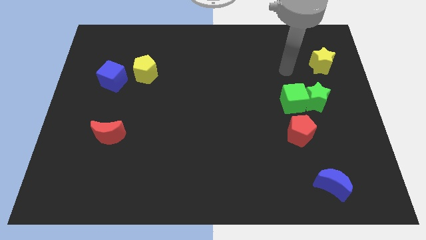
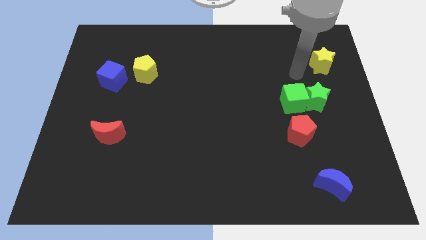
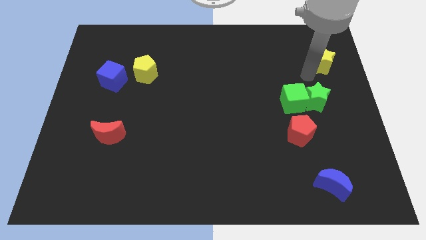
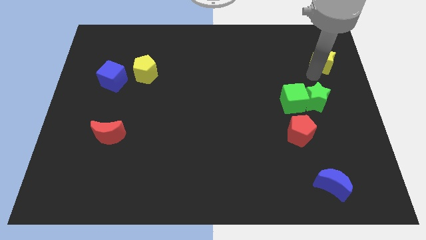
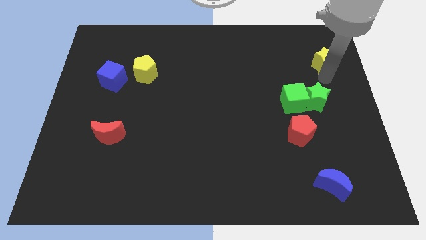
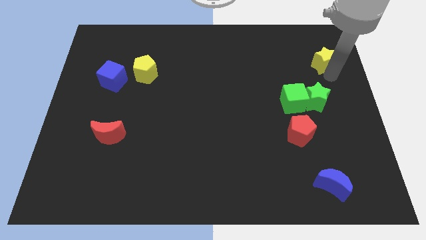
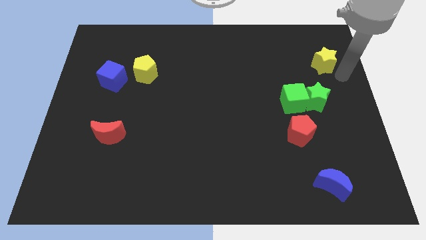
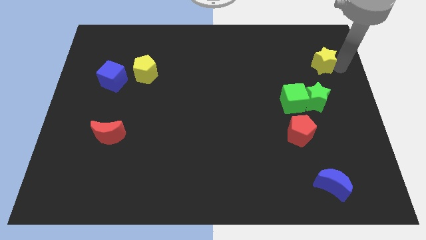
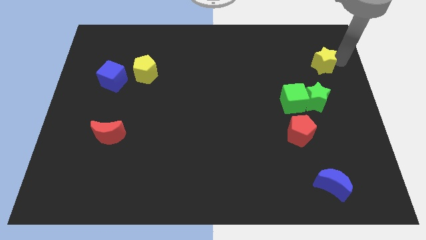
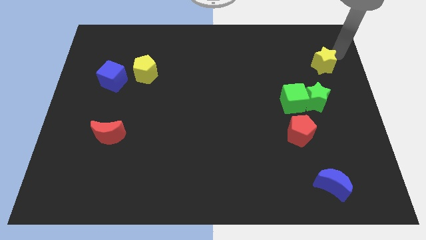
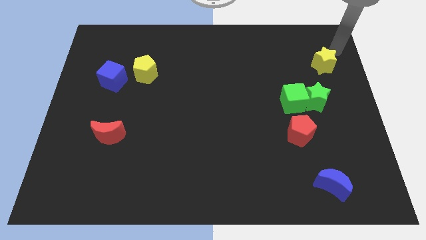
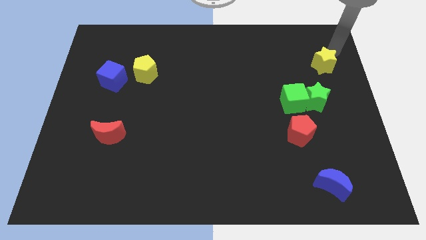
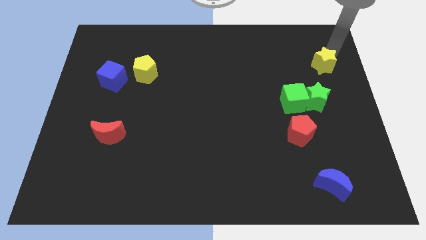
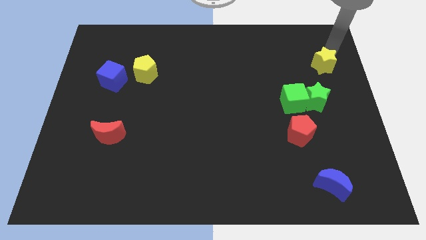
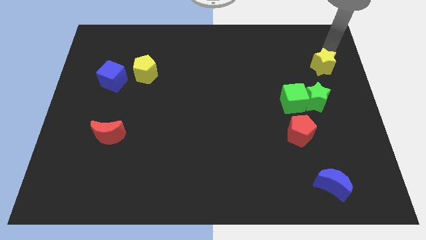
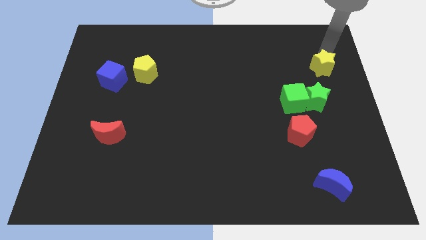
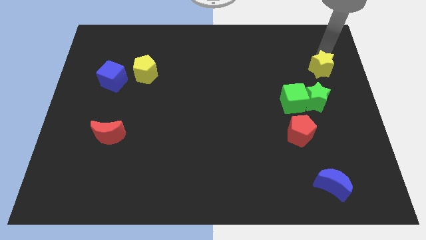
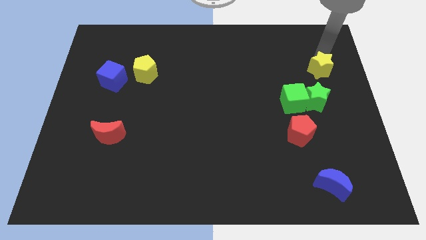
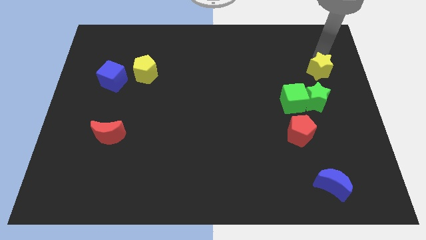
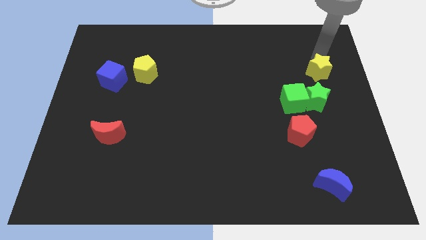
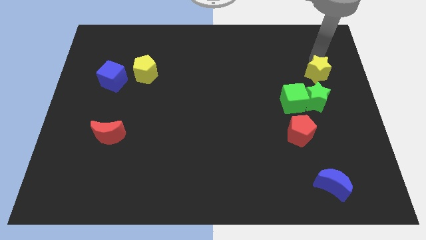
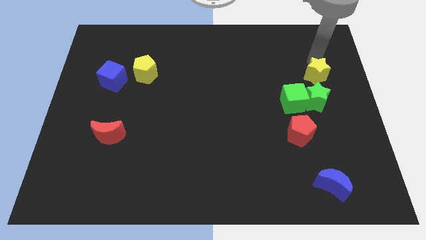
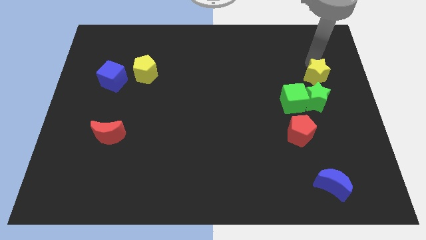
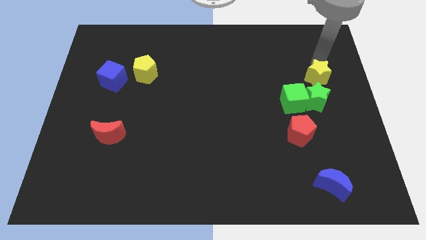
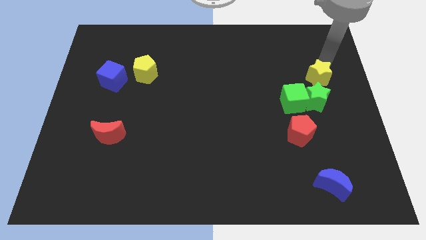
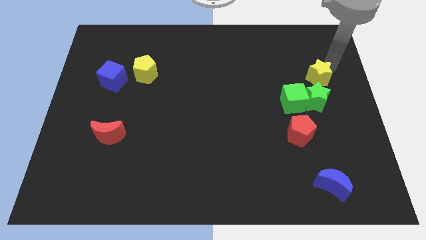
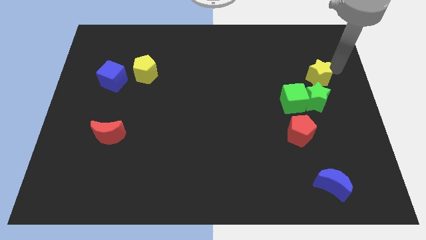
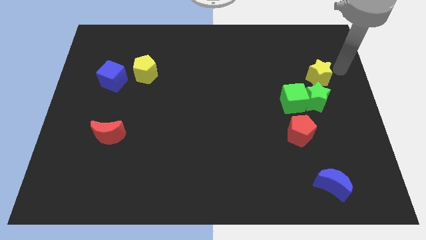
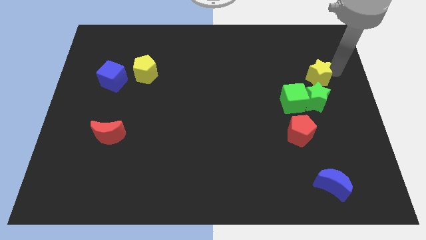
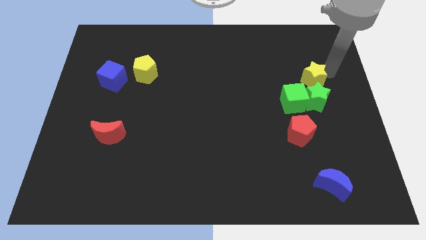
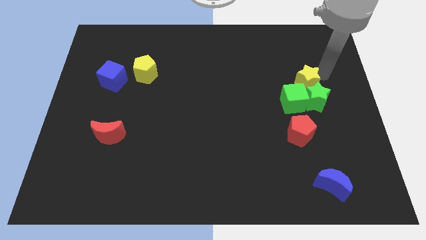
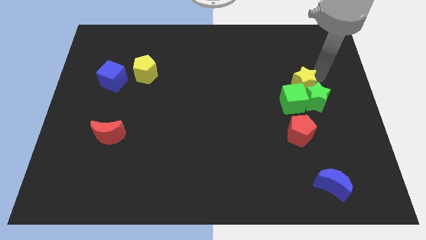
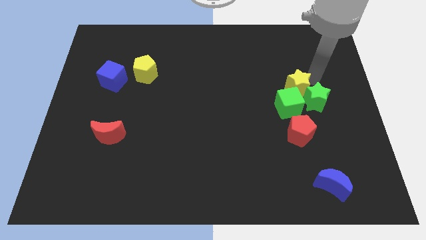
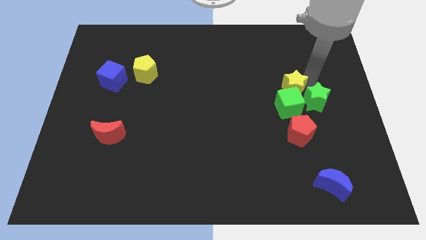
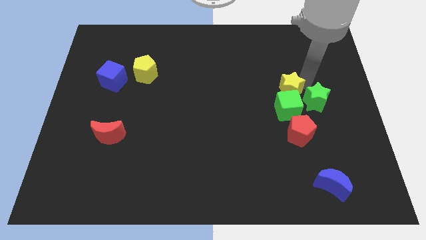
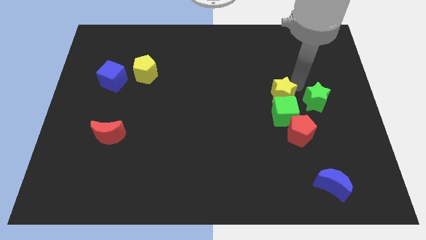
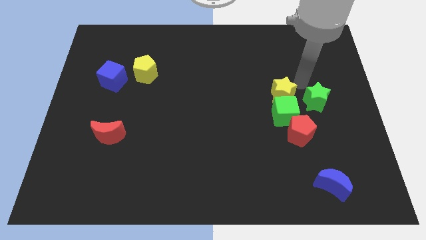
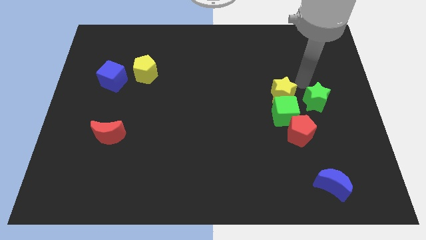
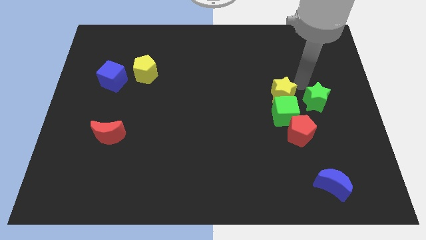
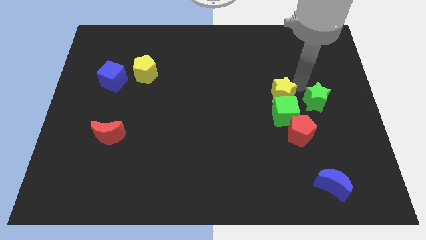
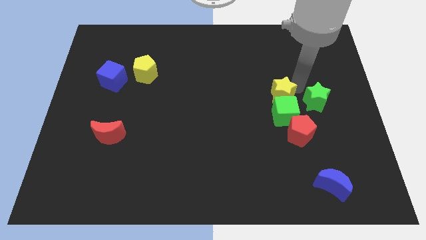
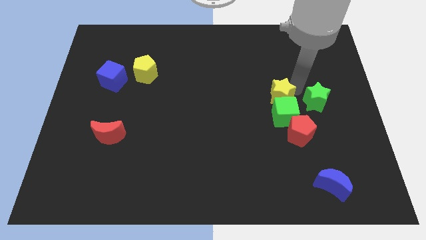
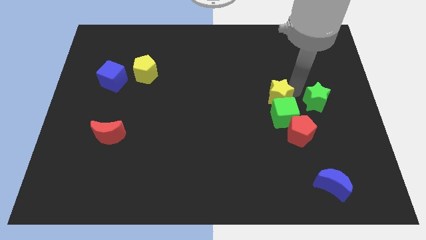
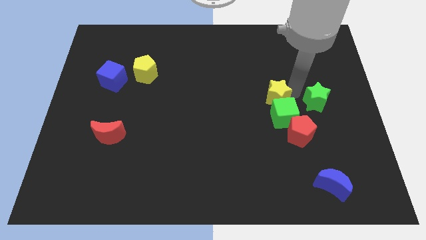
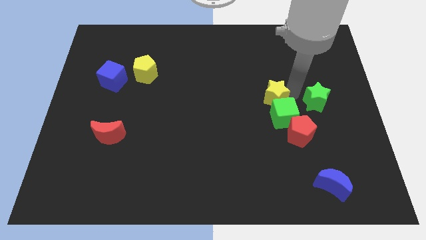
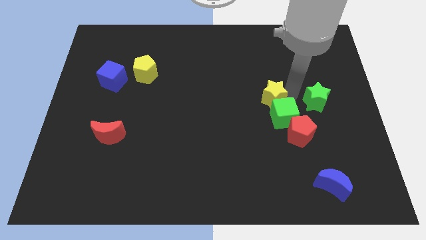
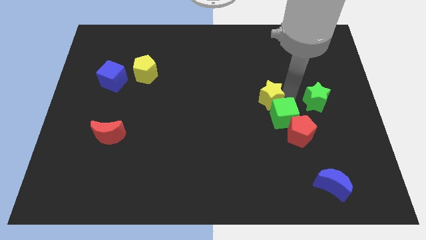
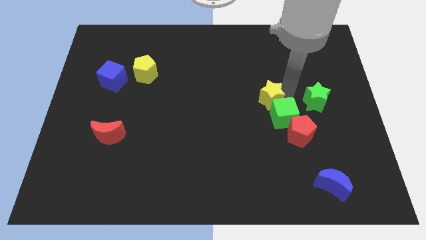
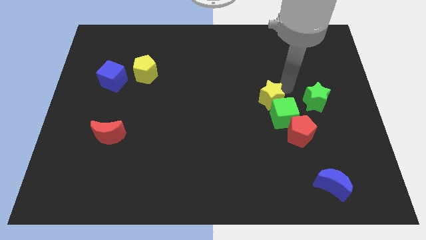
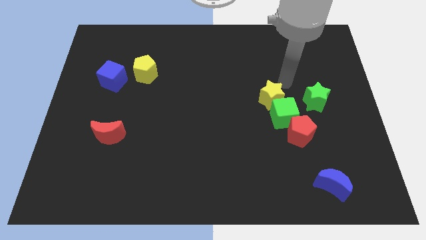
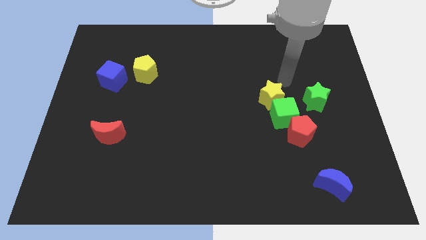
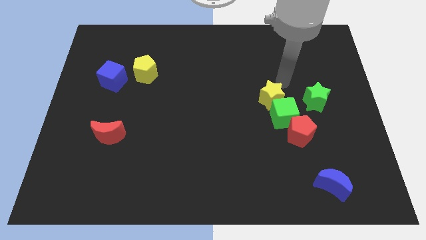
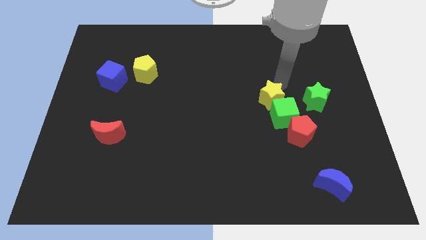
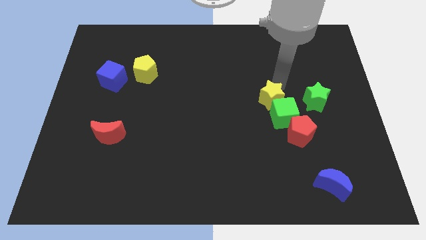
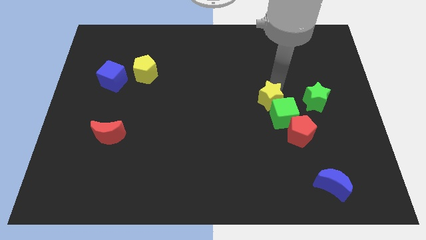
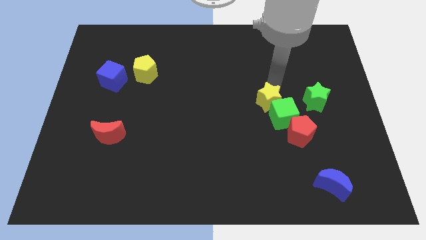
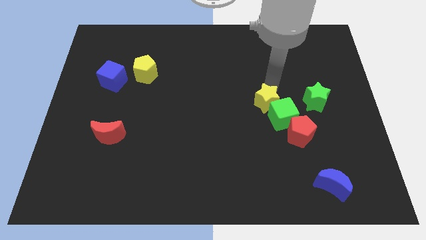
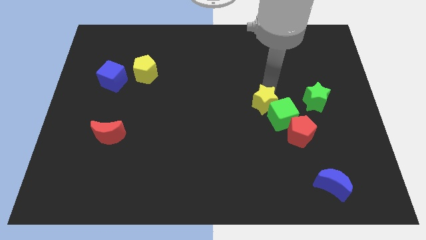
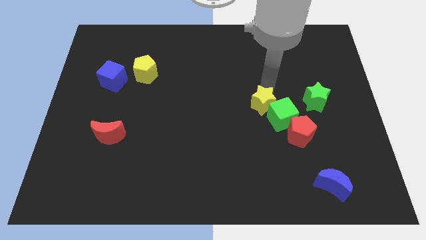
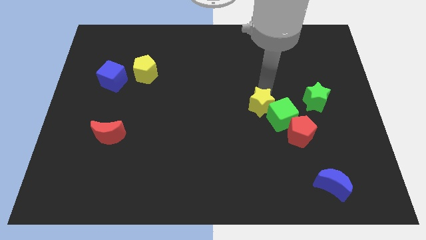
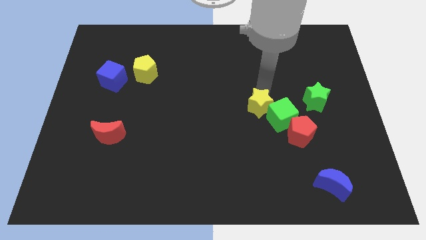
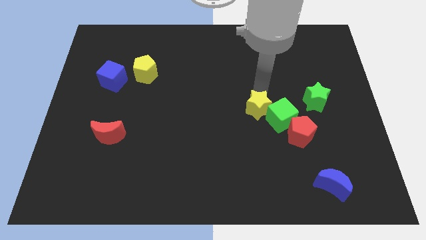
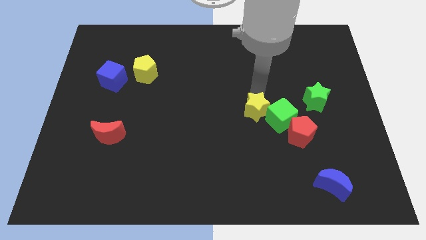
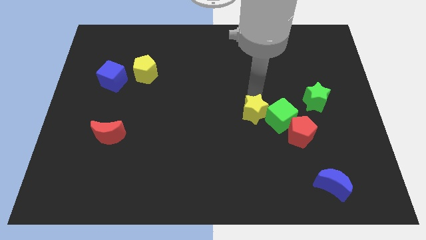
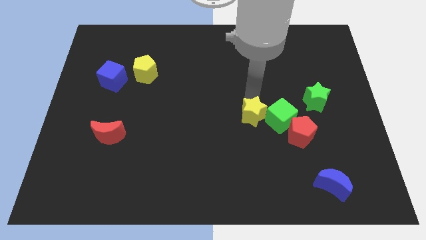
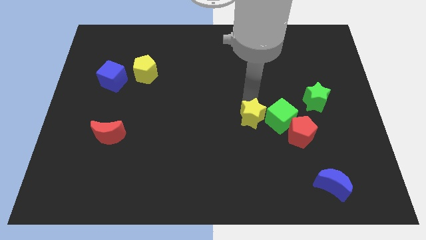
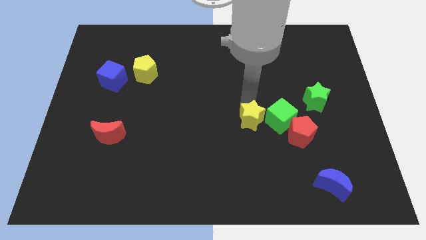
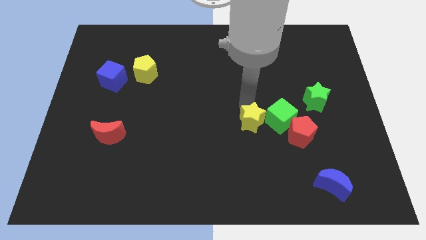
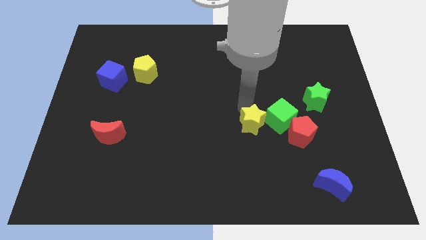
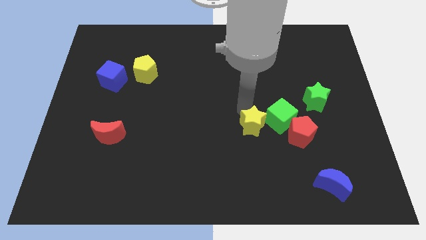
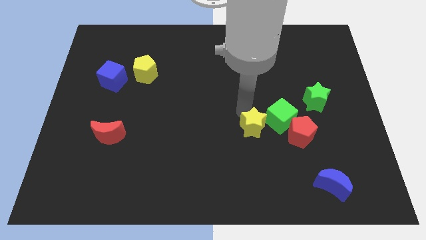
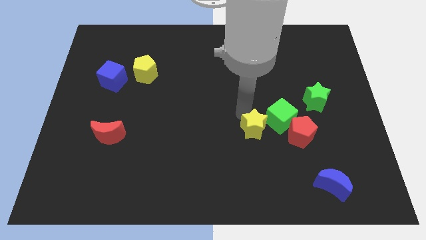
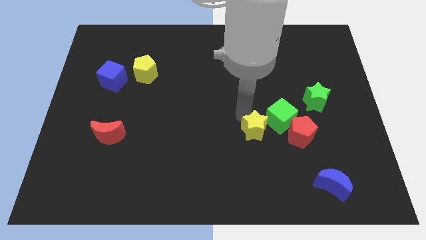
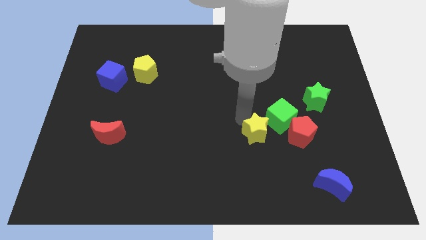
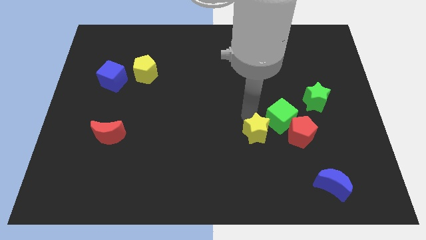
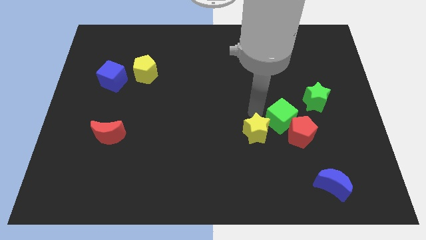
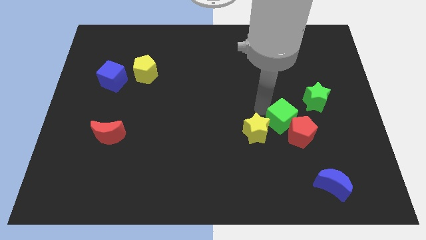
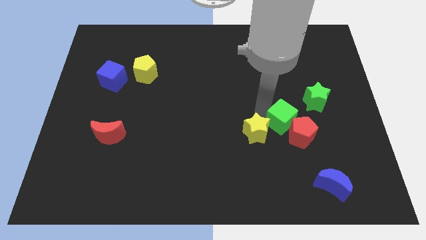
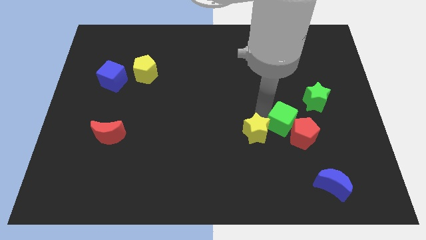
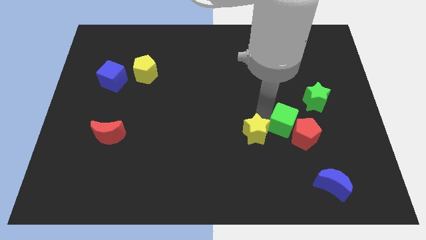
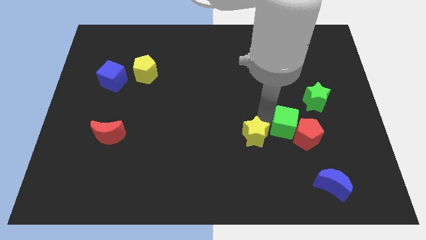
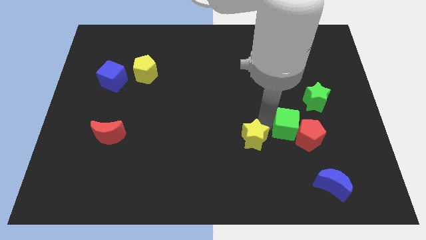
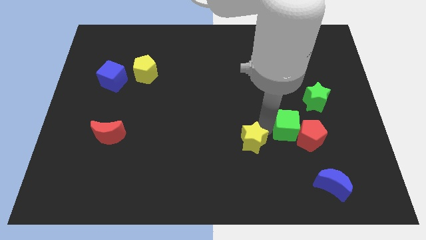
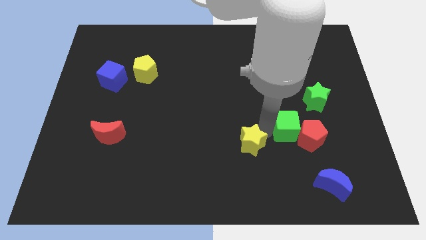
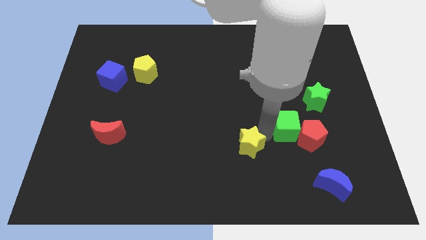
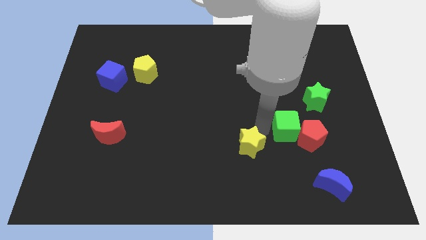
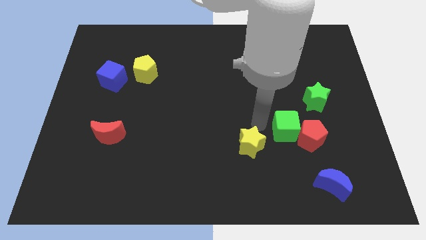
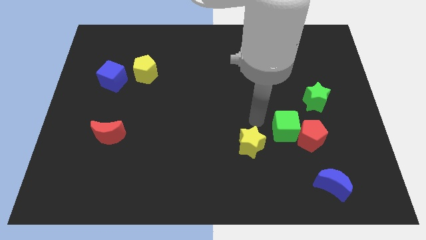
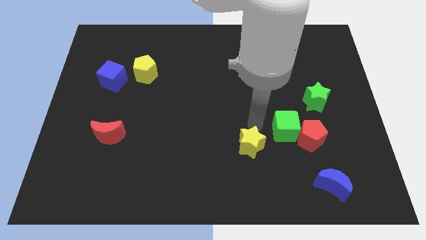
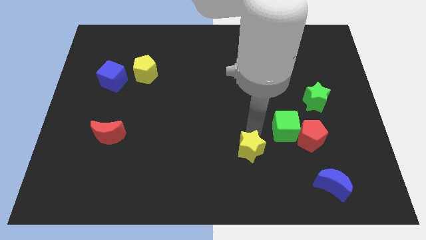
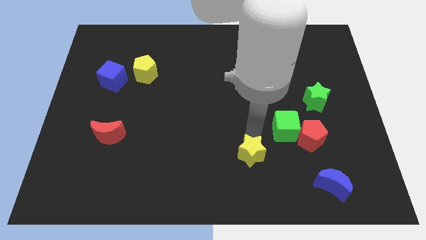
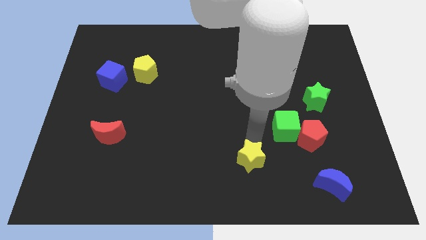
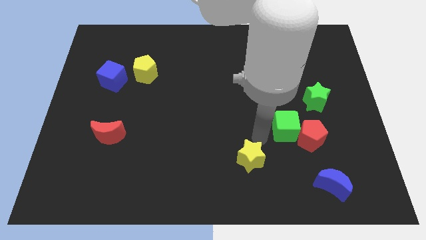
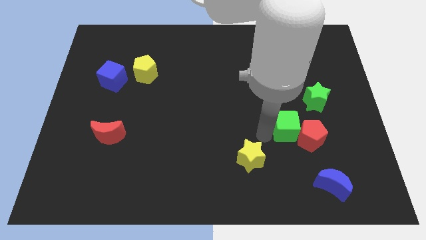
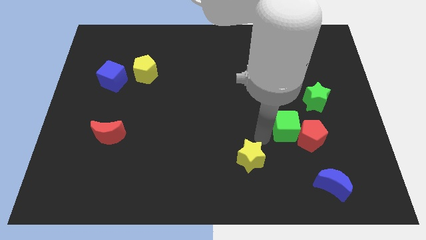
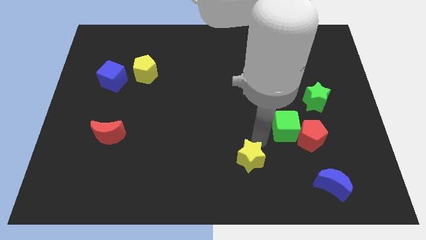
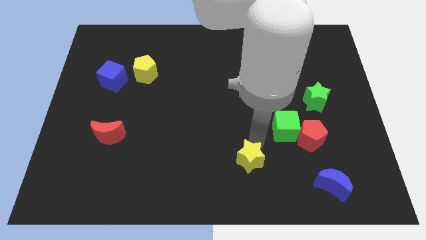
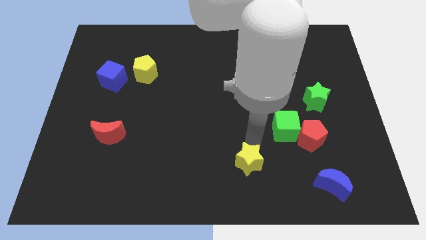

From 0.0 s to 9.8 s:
push the yellow star to the bottom side
